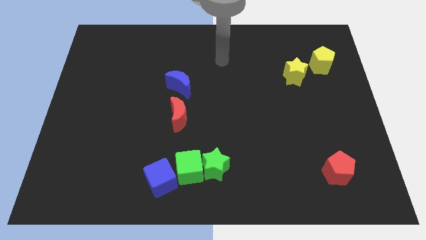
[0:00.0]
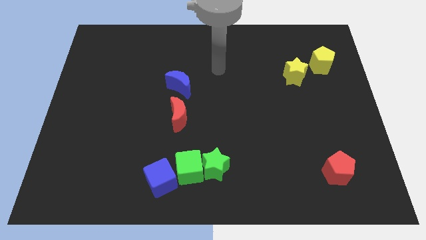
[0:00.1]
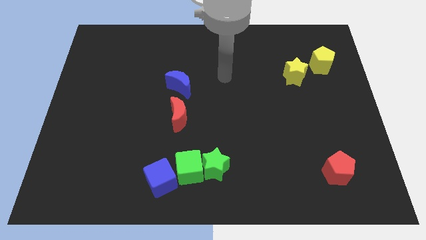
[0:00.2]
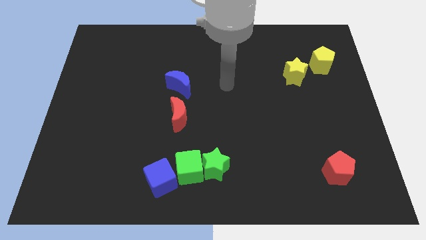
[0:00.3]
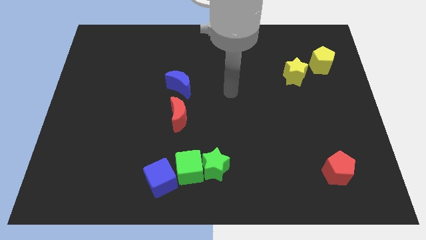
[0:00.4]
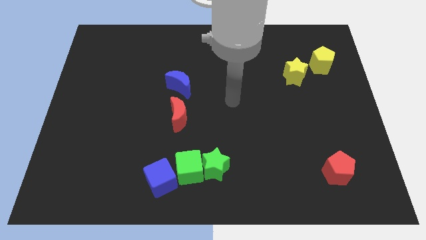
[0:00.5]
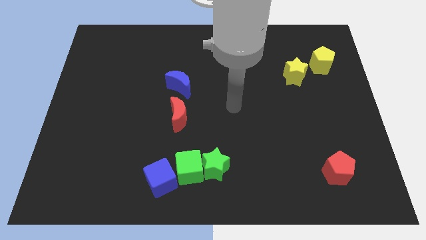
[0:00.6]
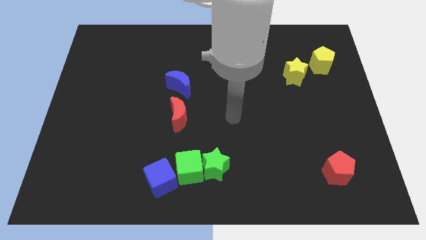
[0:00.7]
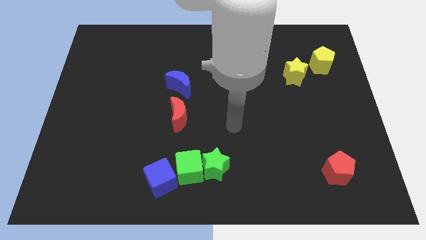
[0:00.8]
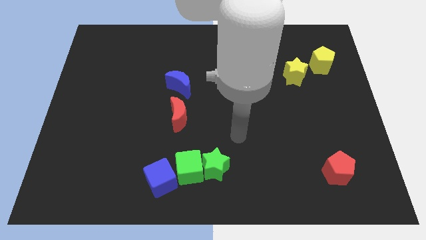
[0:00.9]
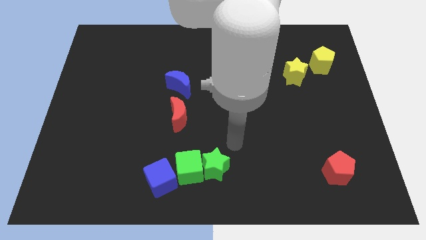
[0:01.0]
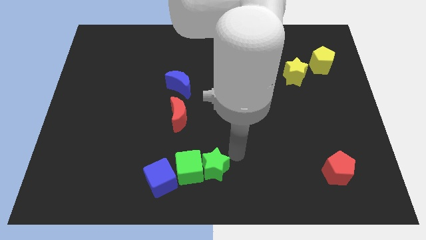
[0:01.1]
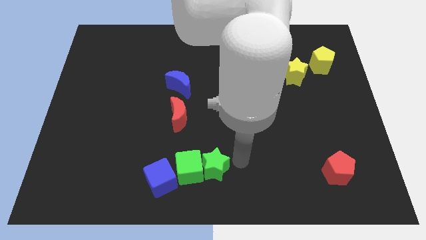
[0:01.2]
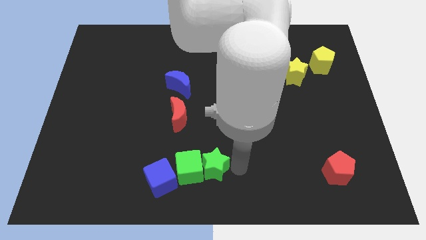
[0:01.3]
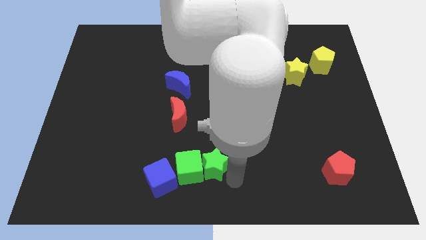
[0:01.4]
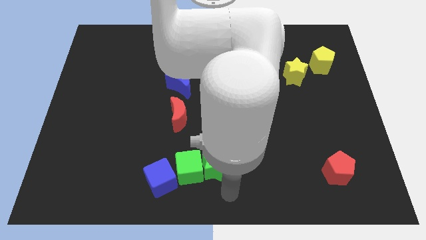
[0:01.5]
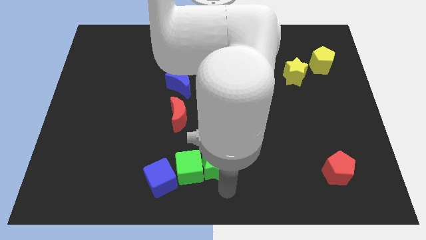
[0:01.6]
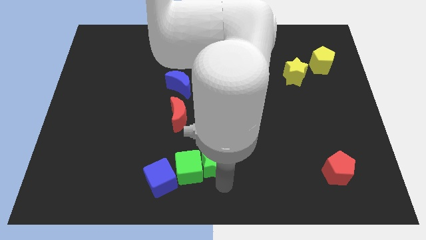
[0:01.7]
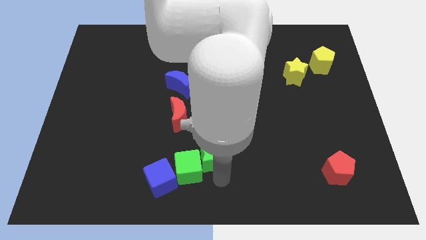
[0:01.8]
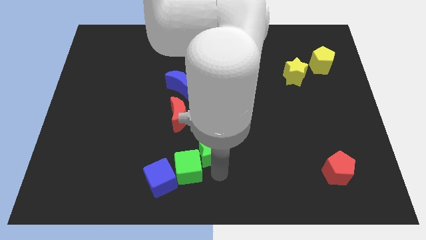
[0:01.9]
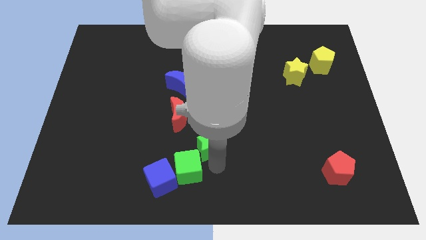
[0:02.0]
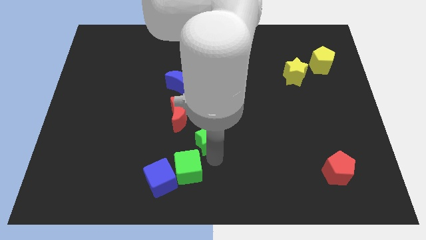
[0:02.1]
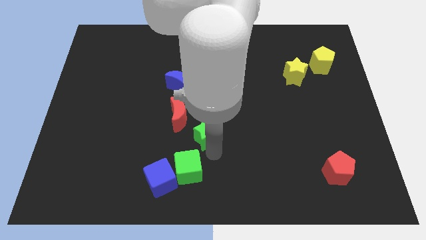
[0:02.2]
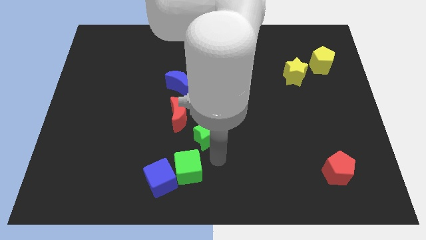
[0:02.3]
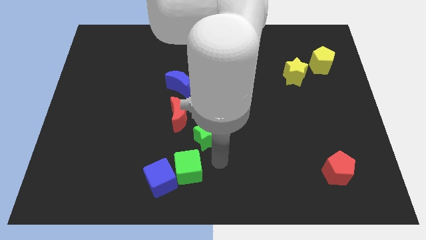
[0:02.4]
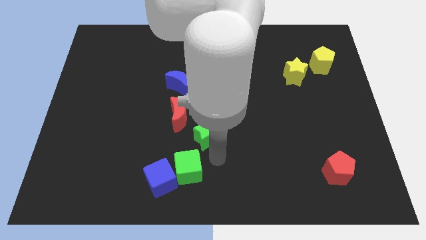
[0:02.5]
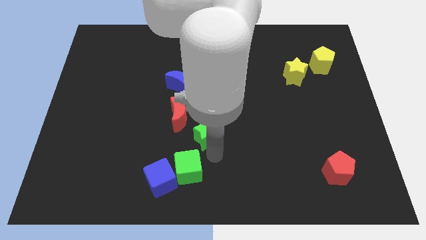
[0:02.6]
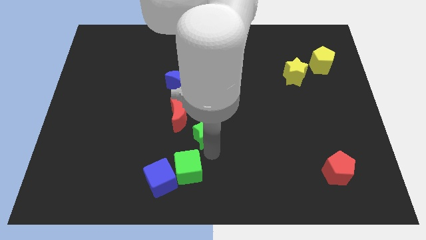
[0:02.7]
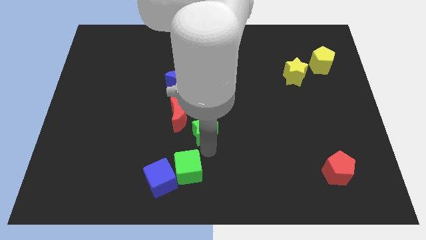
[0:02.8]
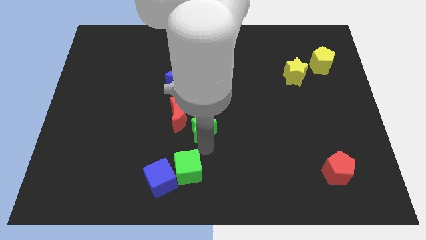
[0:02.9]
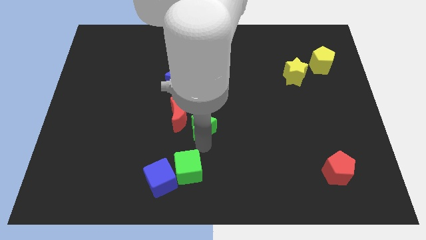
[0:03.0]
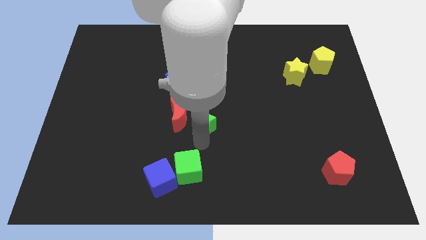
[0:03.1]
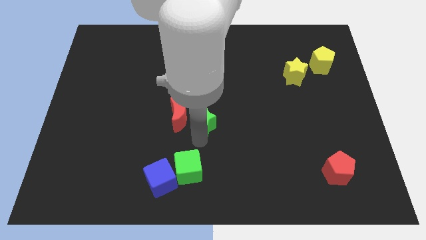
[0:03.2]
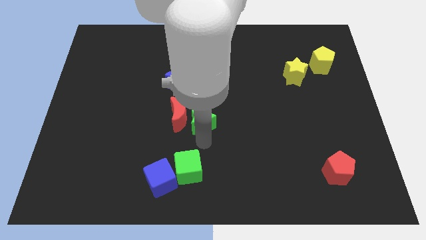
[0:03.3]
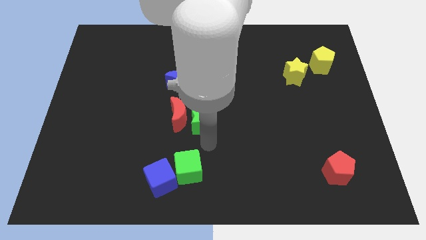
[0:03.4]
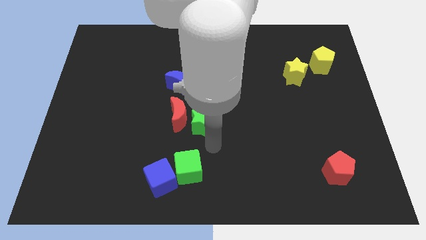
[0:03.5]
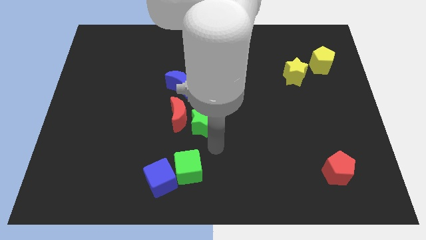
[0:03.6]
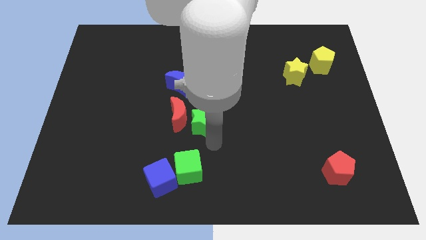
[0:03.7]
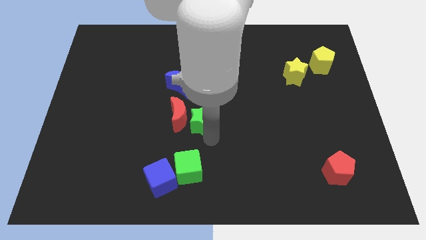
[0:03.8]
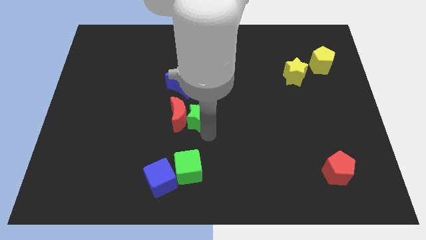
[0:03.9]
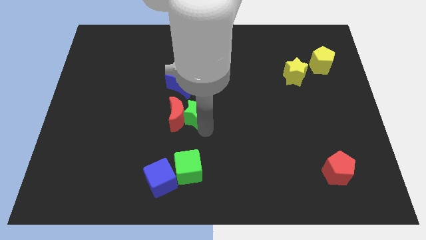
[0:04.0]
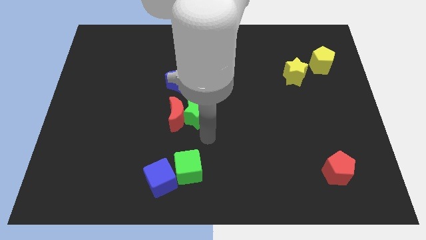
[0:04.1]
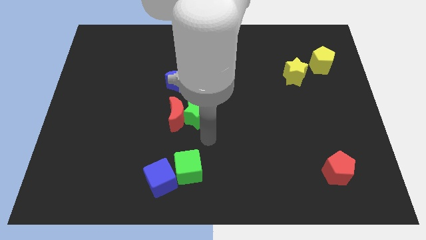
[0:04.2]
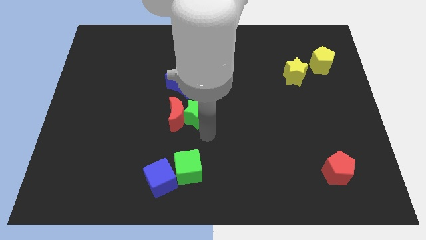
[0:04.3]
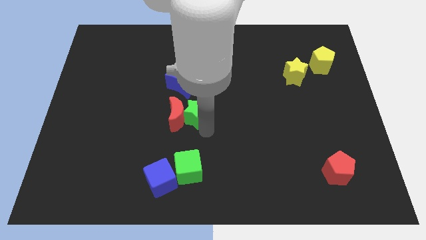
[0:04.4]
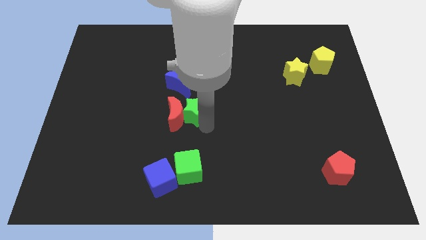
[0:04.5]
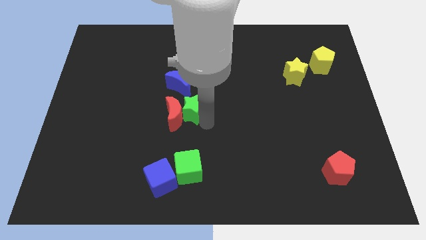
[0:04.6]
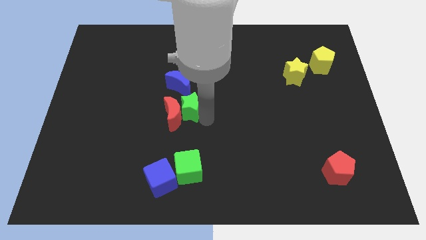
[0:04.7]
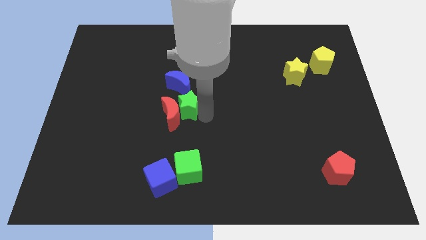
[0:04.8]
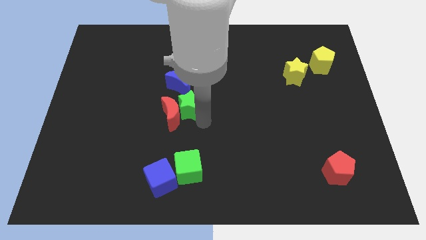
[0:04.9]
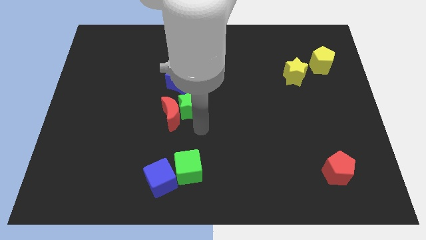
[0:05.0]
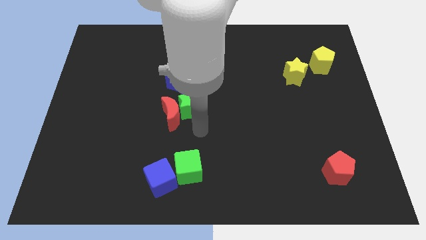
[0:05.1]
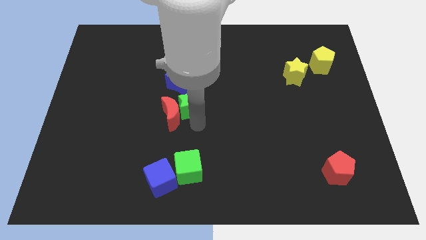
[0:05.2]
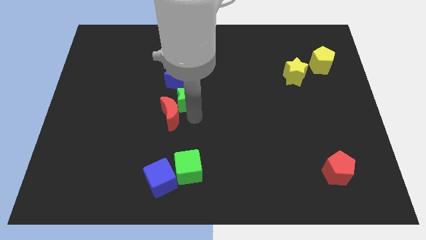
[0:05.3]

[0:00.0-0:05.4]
move the green star close to the blue moon

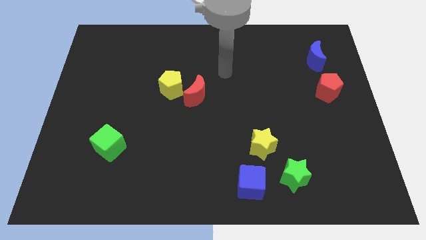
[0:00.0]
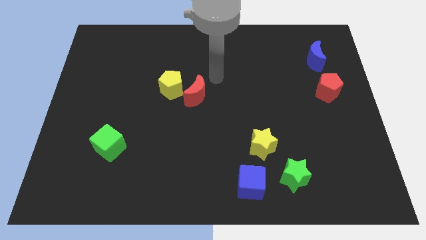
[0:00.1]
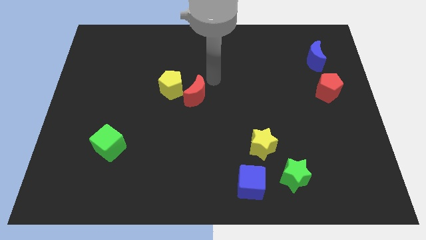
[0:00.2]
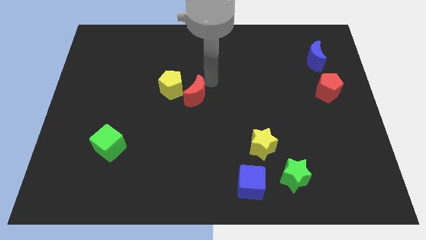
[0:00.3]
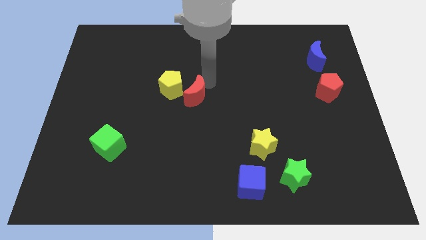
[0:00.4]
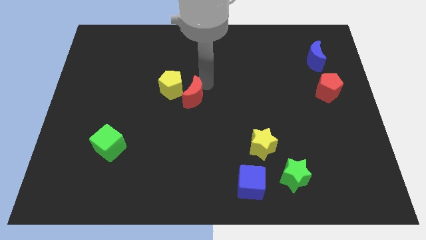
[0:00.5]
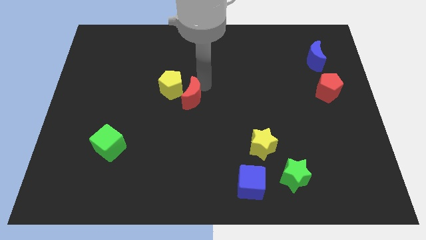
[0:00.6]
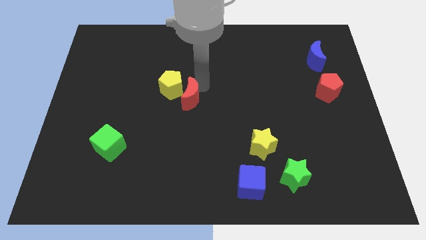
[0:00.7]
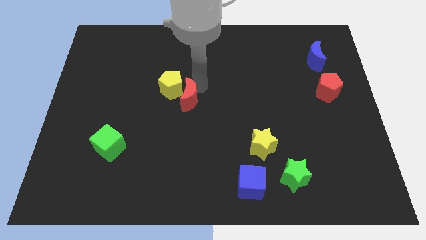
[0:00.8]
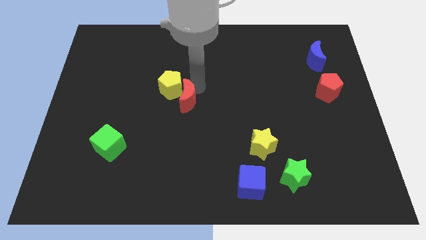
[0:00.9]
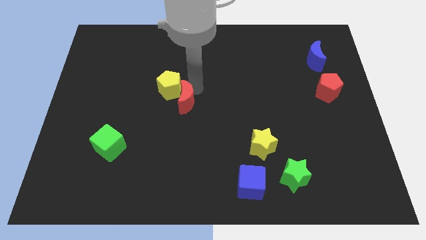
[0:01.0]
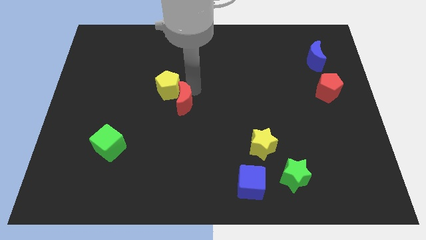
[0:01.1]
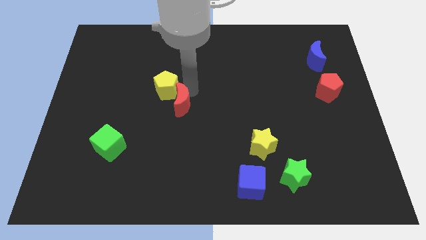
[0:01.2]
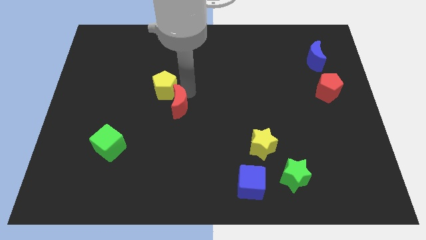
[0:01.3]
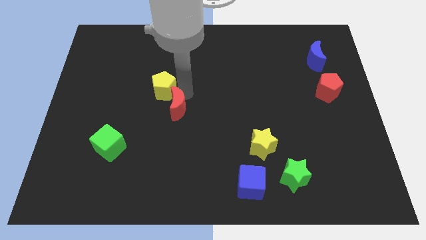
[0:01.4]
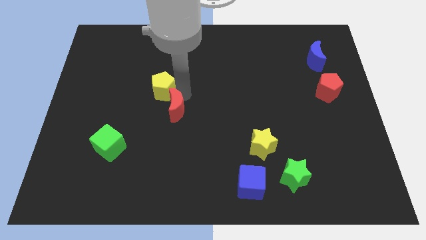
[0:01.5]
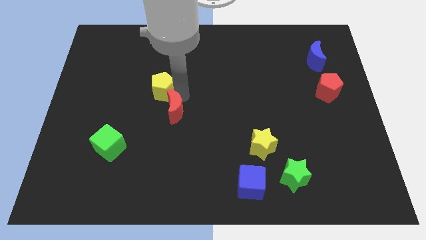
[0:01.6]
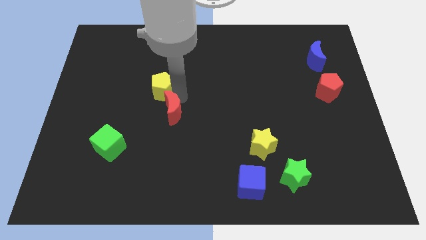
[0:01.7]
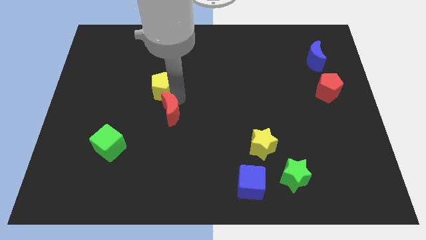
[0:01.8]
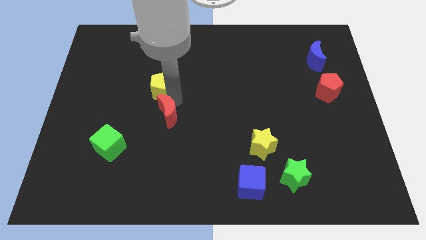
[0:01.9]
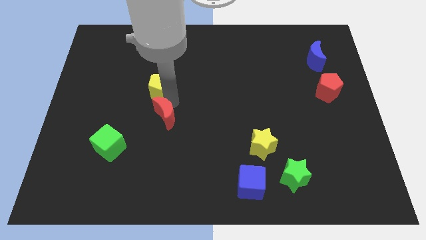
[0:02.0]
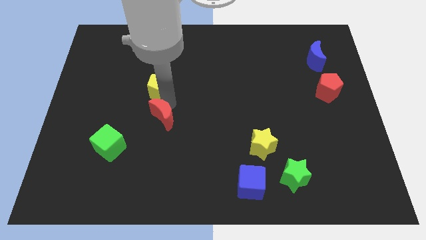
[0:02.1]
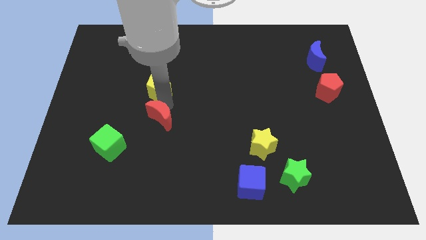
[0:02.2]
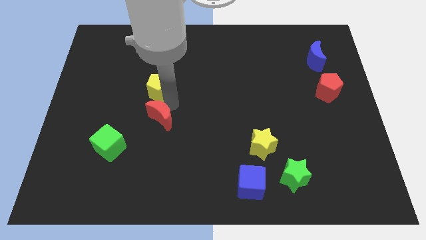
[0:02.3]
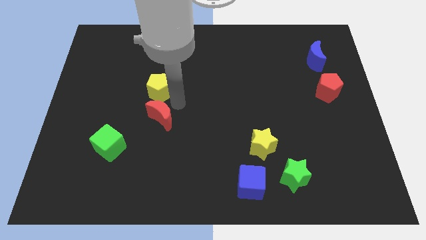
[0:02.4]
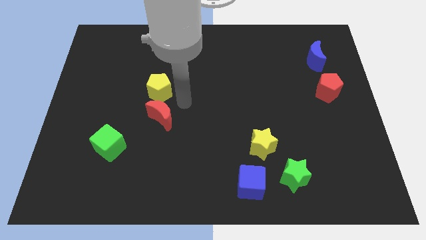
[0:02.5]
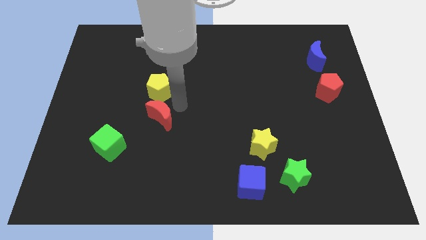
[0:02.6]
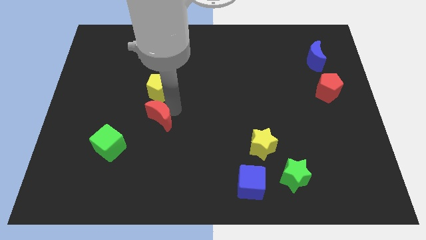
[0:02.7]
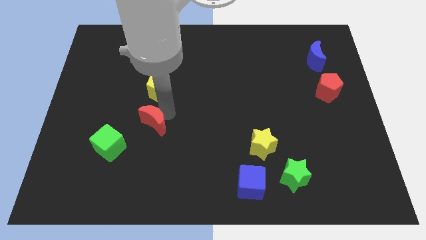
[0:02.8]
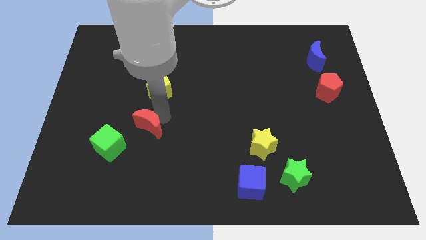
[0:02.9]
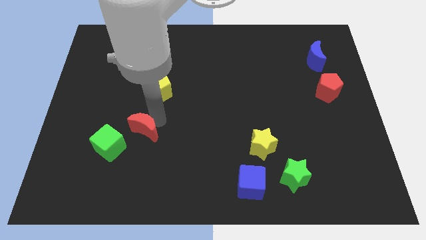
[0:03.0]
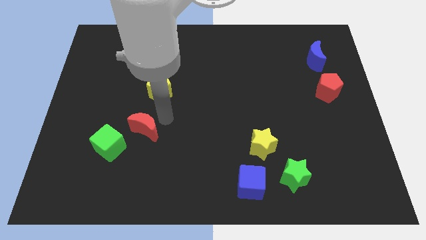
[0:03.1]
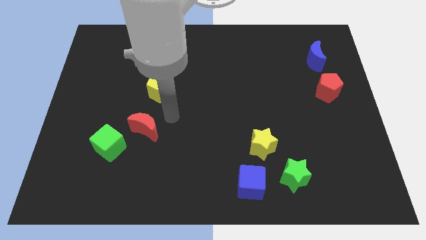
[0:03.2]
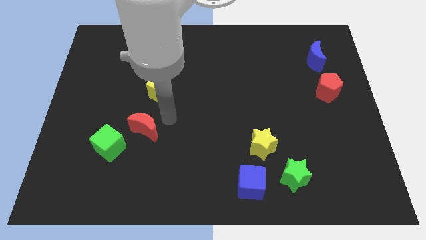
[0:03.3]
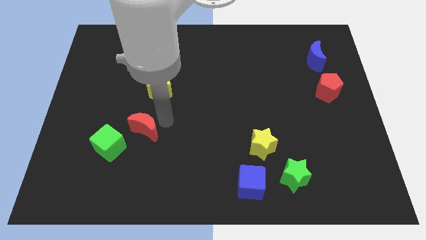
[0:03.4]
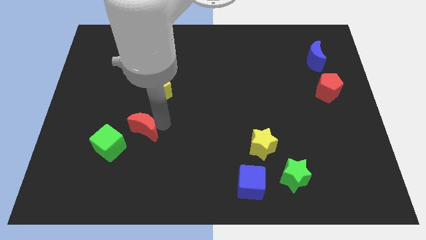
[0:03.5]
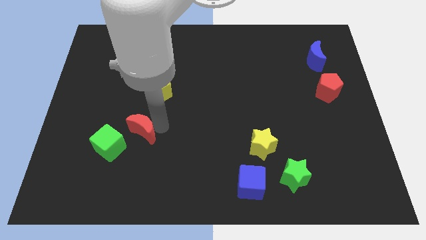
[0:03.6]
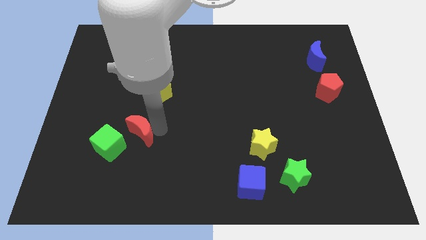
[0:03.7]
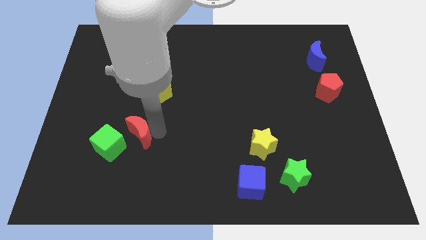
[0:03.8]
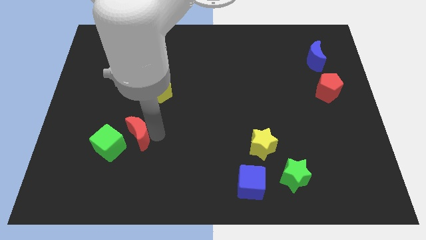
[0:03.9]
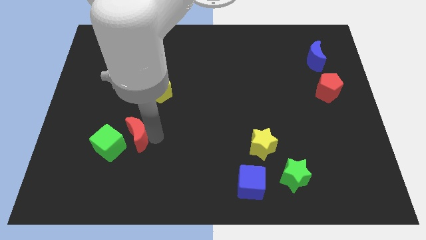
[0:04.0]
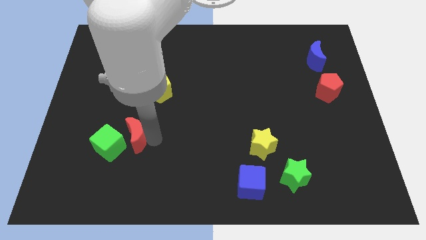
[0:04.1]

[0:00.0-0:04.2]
push the red moon close to the green cube
